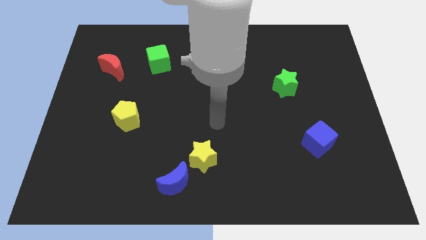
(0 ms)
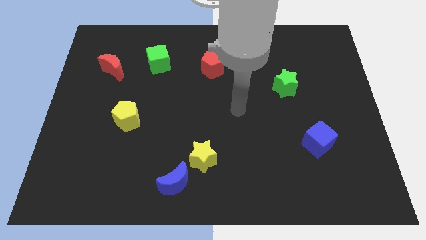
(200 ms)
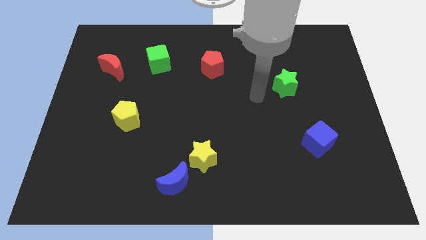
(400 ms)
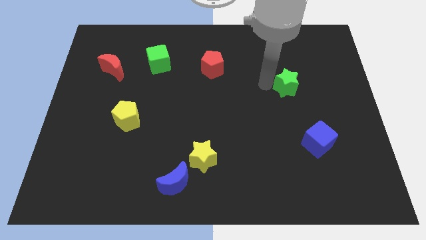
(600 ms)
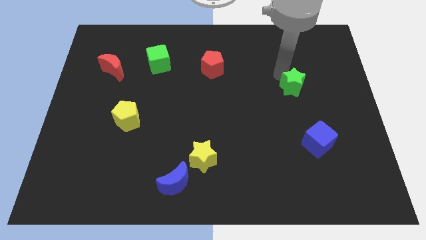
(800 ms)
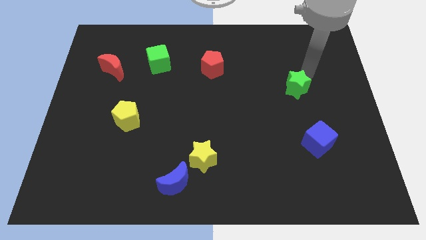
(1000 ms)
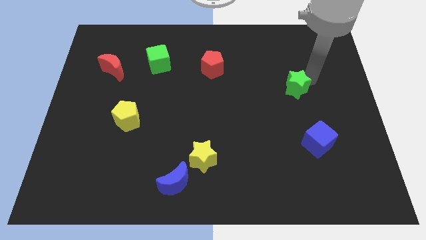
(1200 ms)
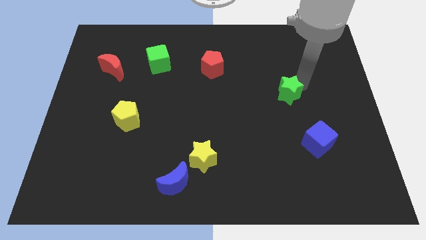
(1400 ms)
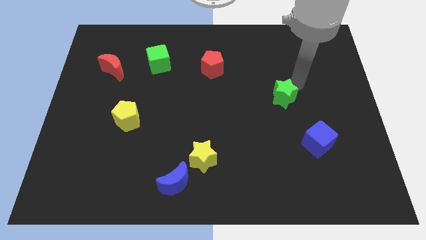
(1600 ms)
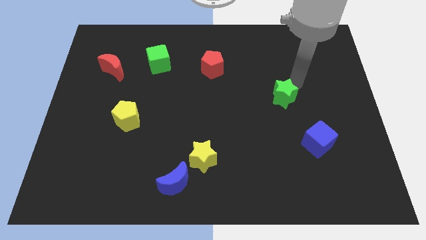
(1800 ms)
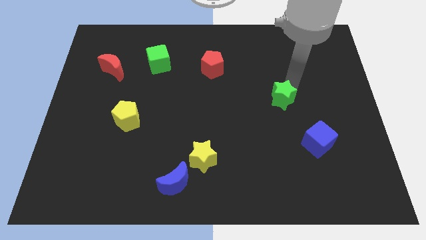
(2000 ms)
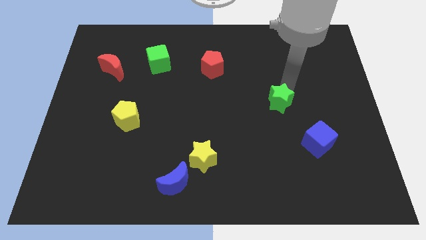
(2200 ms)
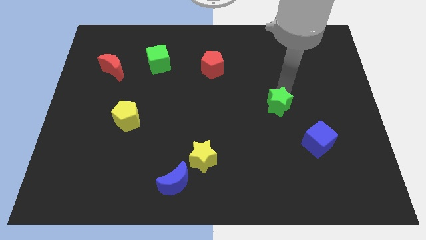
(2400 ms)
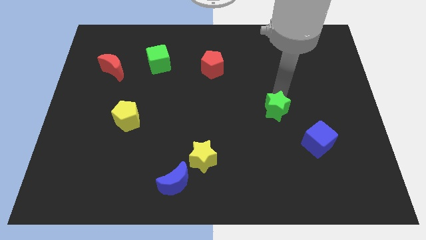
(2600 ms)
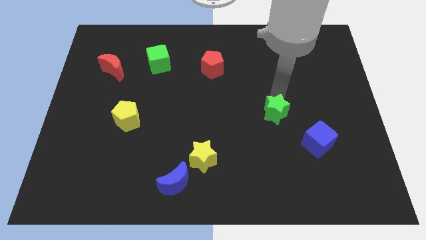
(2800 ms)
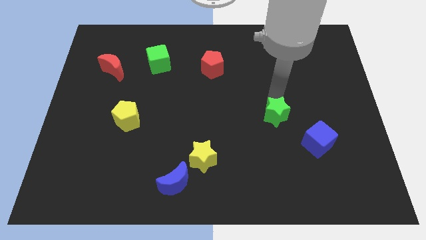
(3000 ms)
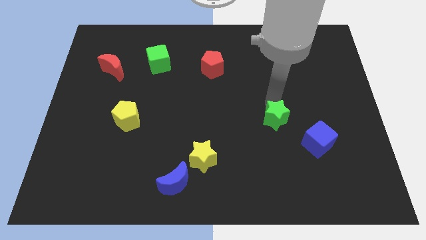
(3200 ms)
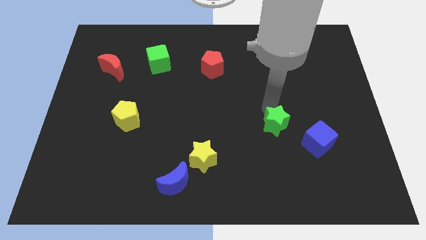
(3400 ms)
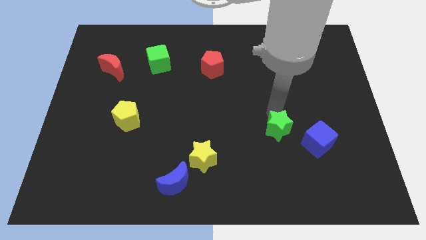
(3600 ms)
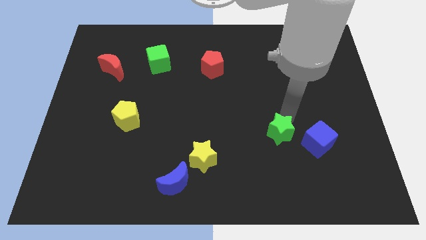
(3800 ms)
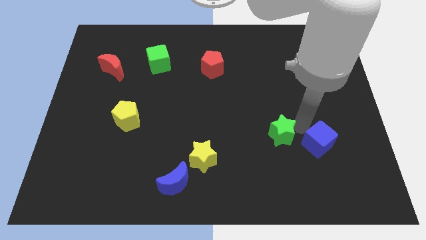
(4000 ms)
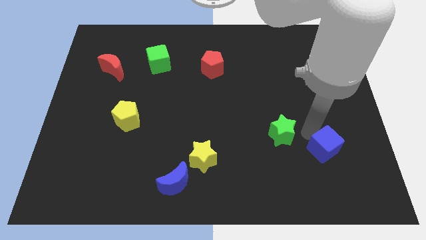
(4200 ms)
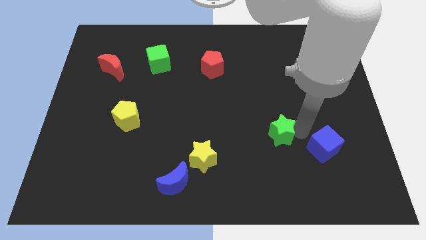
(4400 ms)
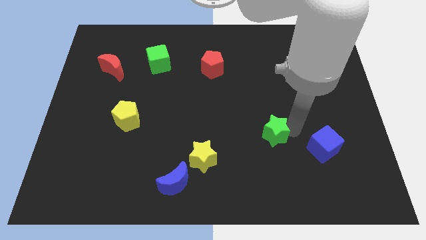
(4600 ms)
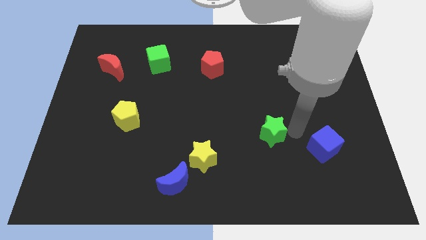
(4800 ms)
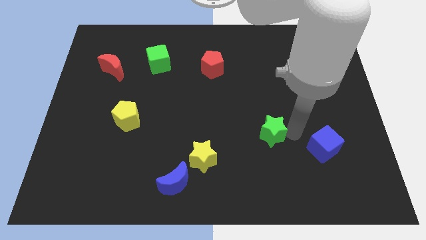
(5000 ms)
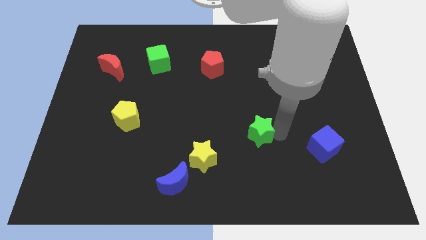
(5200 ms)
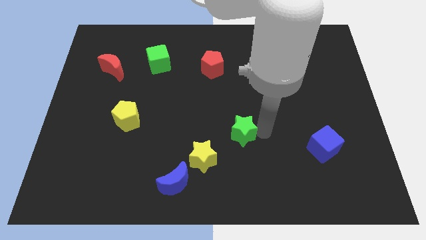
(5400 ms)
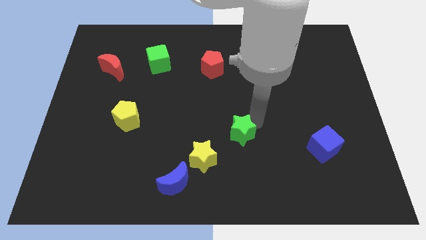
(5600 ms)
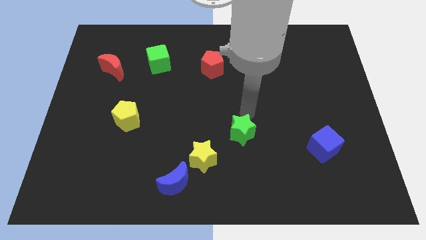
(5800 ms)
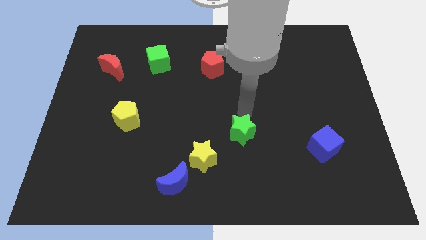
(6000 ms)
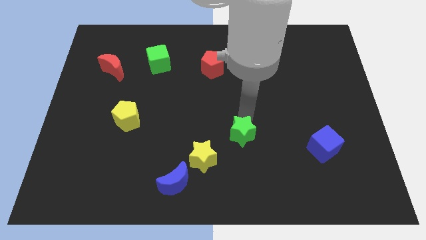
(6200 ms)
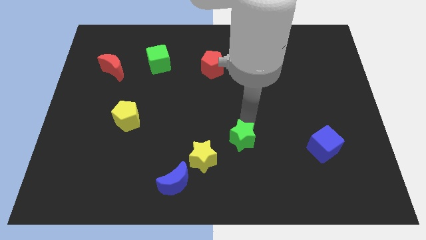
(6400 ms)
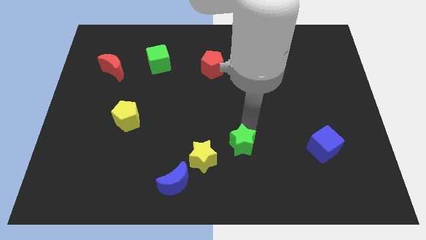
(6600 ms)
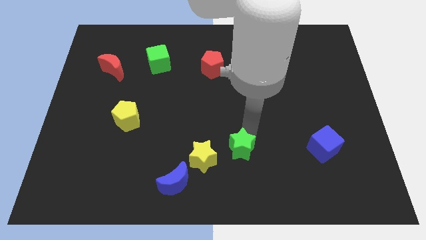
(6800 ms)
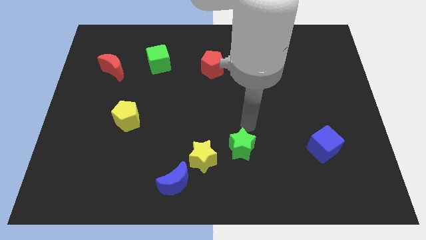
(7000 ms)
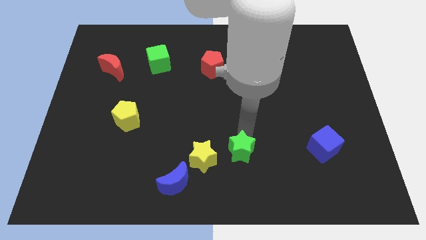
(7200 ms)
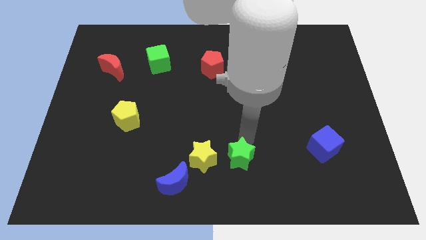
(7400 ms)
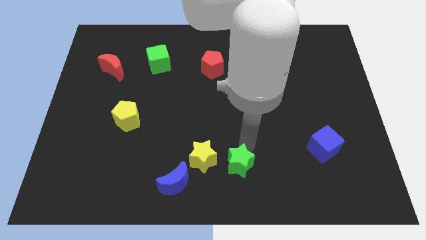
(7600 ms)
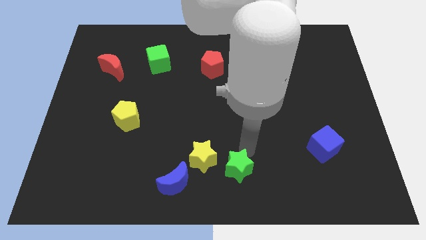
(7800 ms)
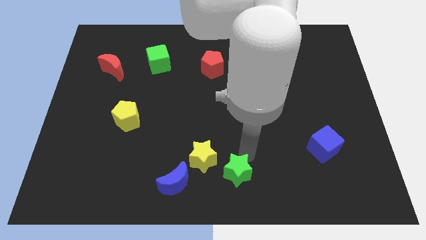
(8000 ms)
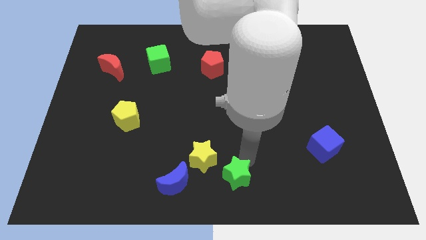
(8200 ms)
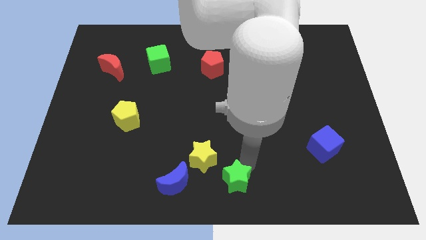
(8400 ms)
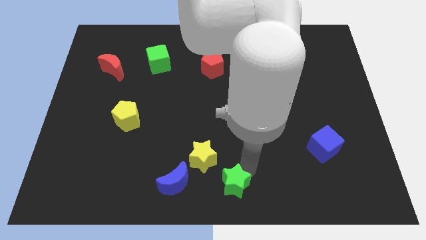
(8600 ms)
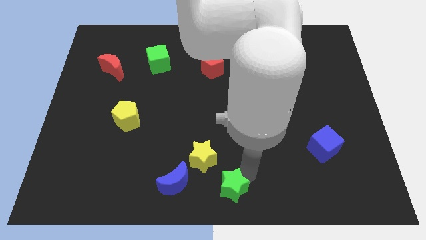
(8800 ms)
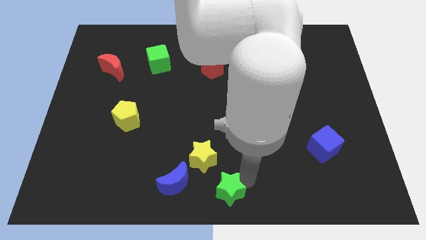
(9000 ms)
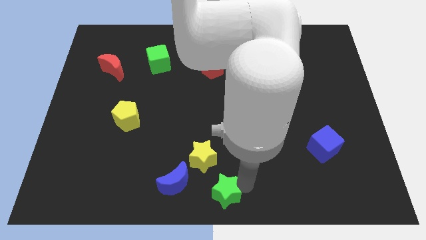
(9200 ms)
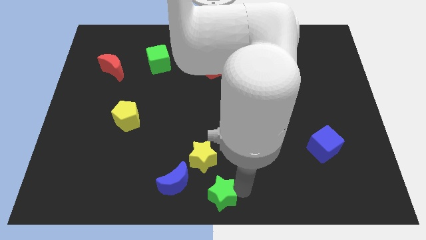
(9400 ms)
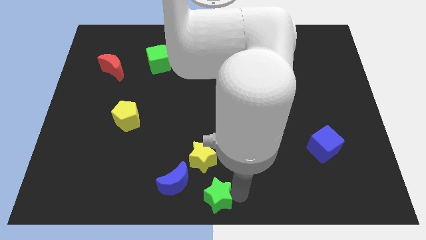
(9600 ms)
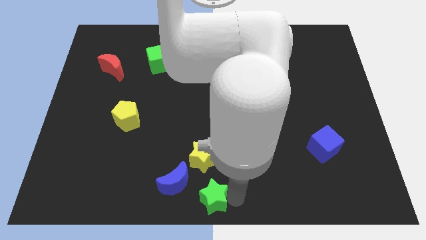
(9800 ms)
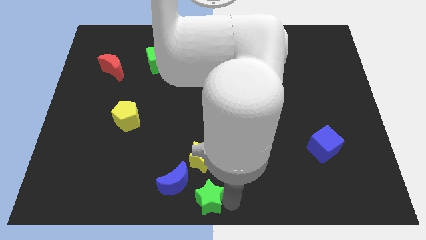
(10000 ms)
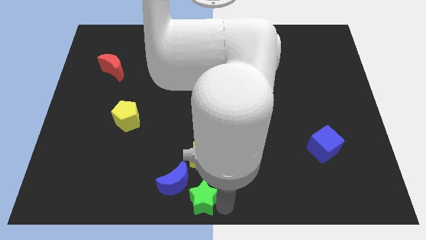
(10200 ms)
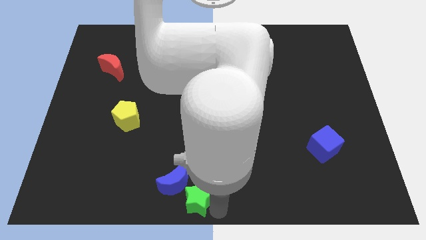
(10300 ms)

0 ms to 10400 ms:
push the green star next to the blue moon

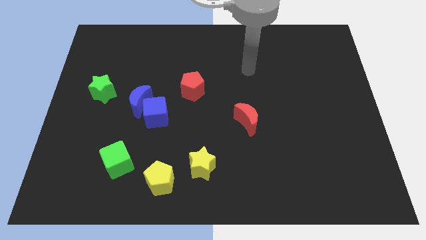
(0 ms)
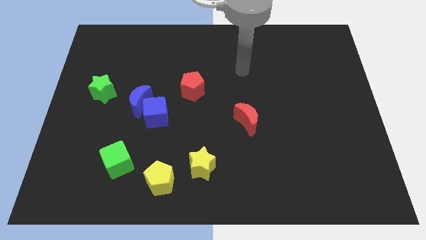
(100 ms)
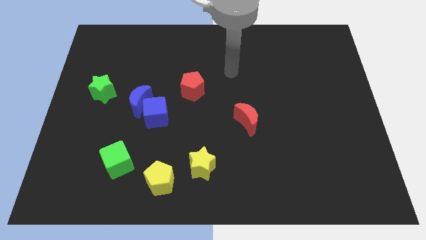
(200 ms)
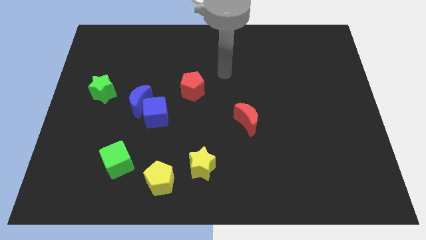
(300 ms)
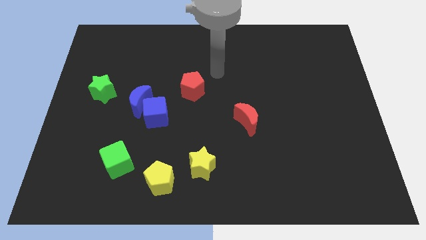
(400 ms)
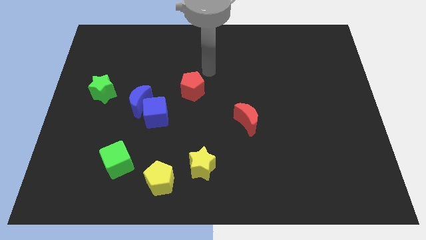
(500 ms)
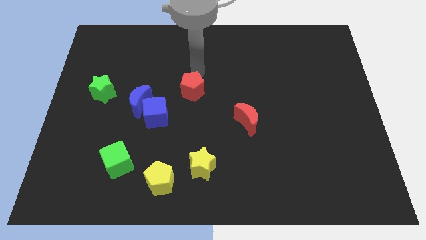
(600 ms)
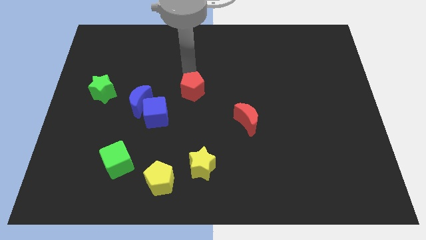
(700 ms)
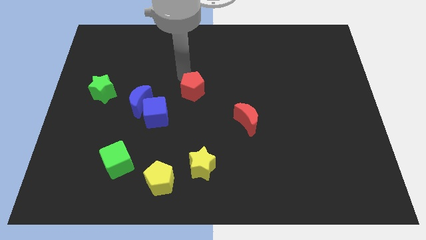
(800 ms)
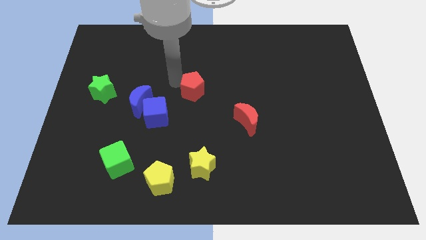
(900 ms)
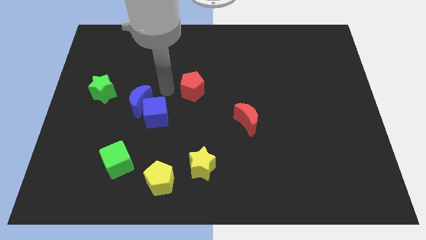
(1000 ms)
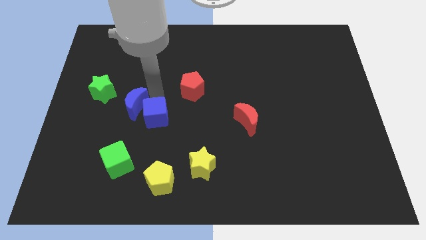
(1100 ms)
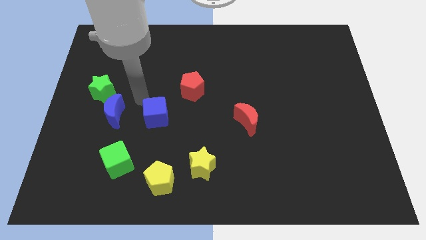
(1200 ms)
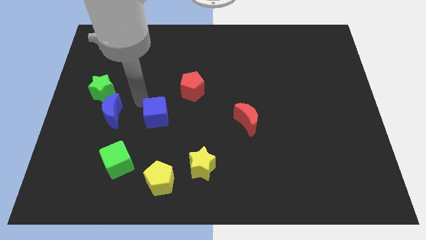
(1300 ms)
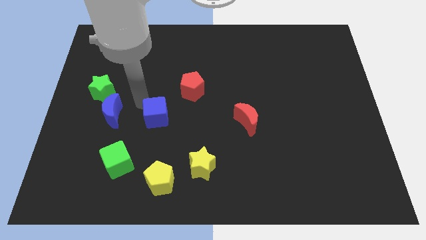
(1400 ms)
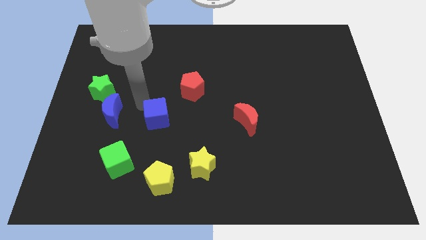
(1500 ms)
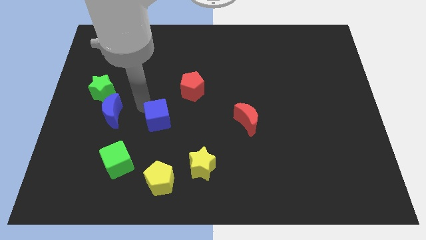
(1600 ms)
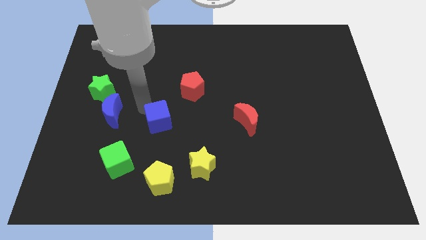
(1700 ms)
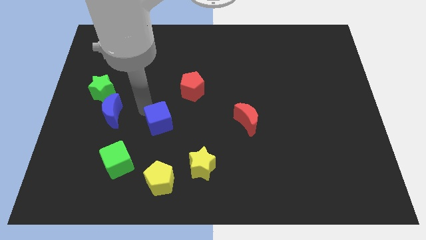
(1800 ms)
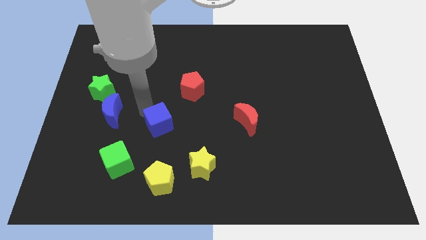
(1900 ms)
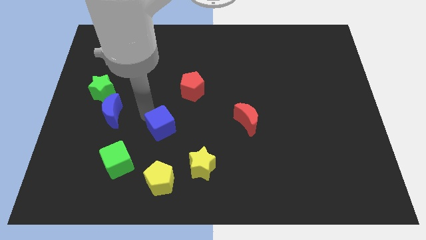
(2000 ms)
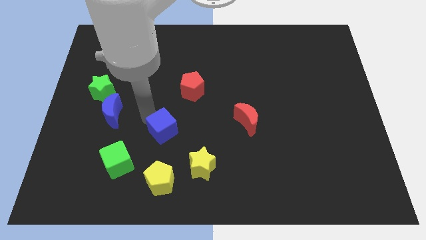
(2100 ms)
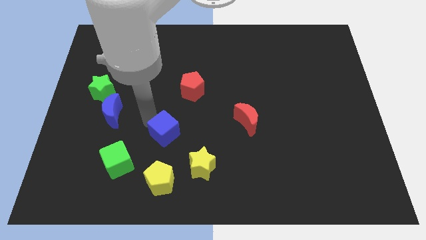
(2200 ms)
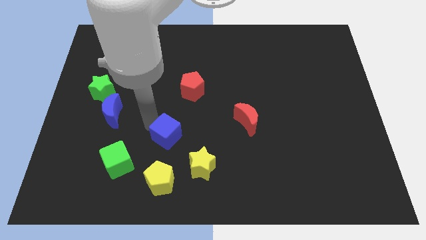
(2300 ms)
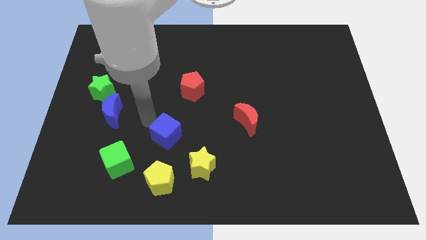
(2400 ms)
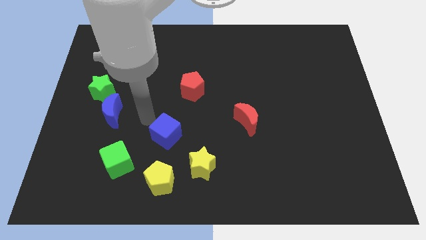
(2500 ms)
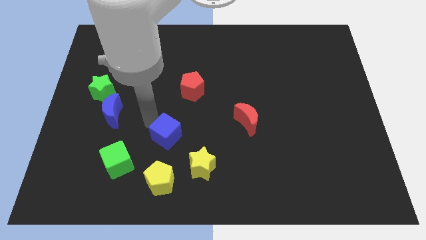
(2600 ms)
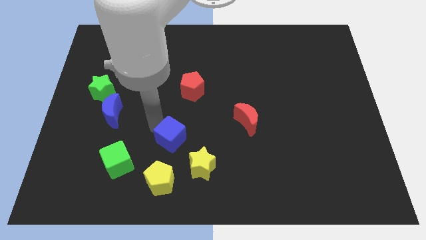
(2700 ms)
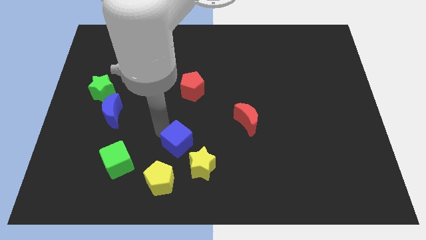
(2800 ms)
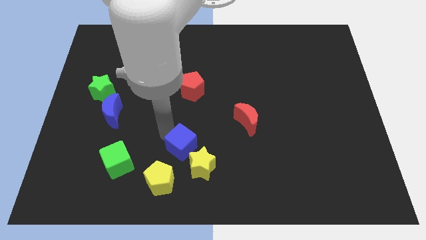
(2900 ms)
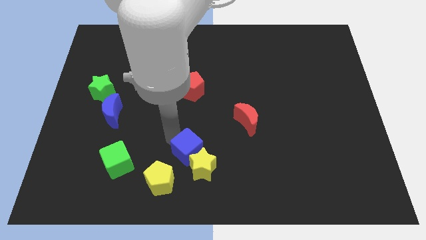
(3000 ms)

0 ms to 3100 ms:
slide the blue cube close to the yellow star
